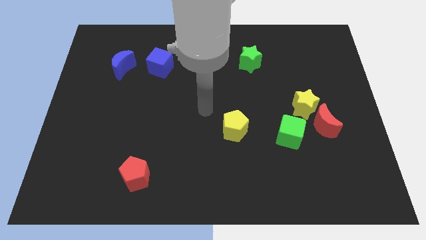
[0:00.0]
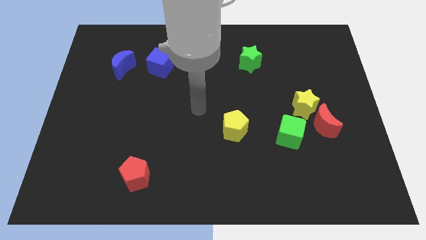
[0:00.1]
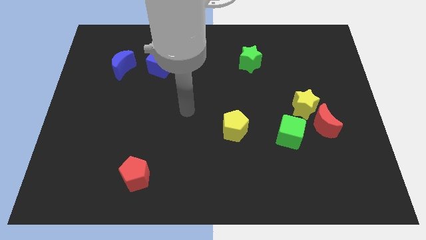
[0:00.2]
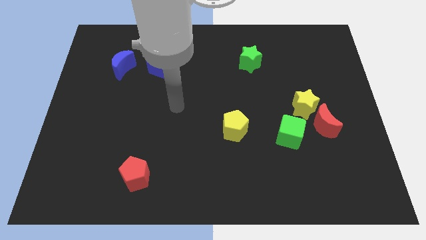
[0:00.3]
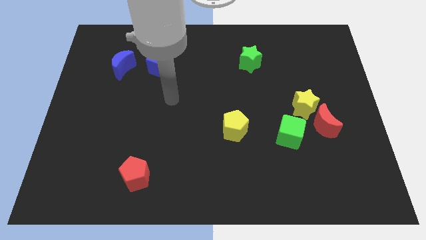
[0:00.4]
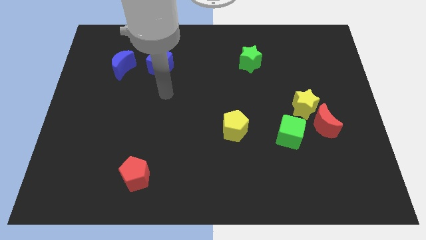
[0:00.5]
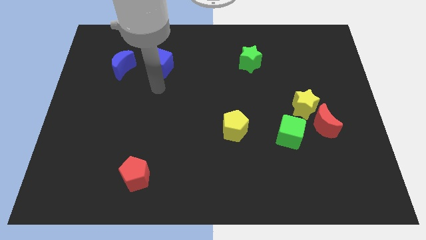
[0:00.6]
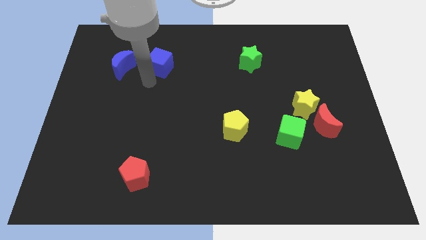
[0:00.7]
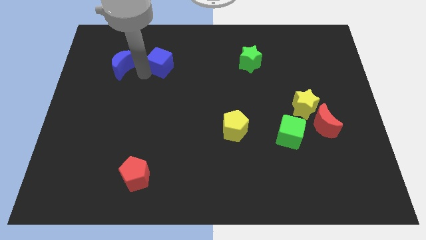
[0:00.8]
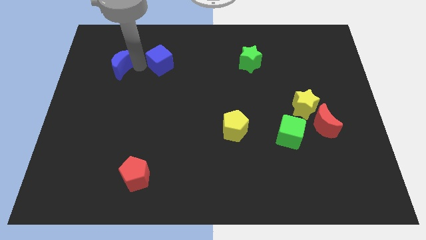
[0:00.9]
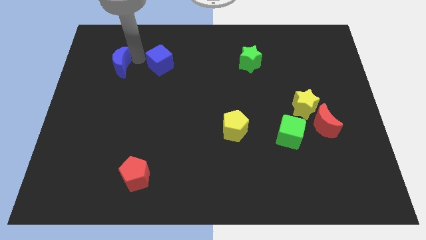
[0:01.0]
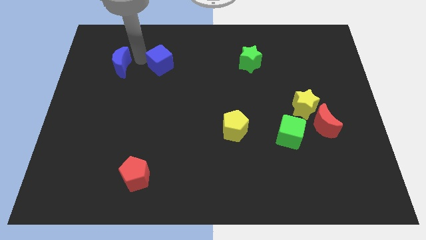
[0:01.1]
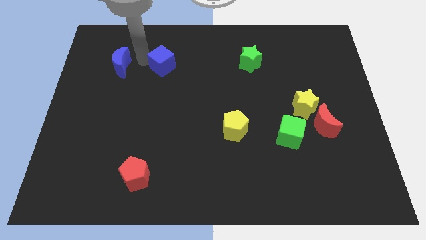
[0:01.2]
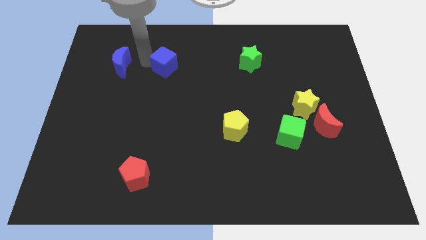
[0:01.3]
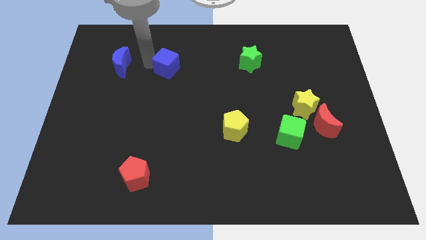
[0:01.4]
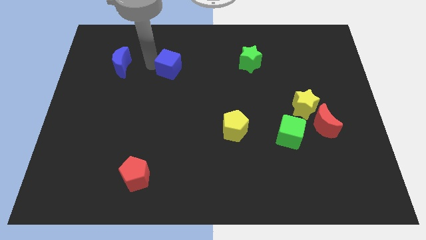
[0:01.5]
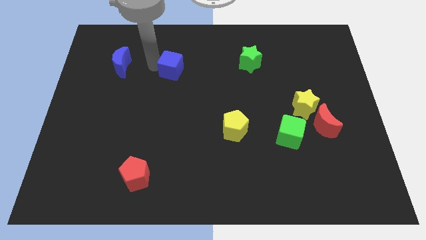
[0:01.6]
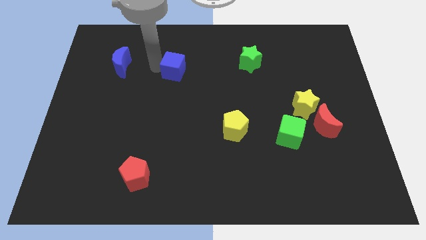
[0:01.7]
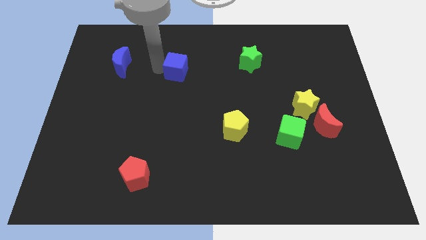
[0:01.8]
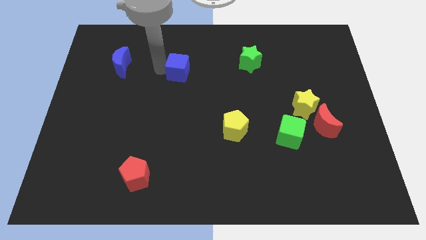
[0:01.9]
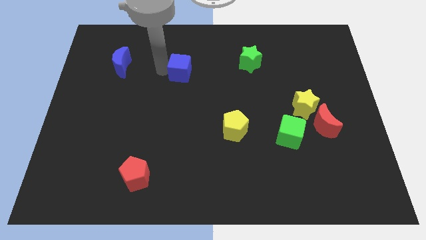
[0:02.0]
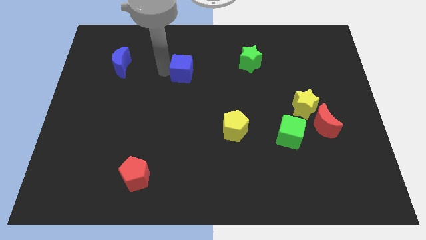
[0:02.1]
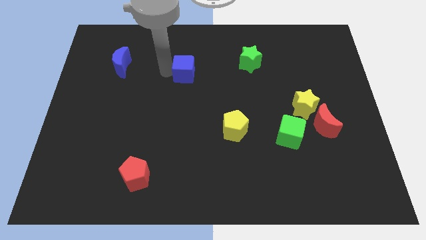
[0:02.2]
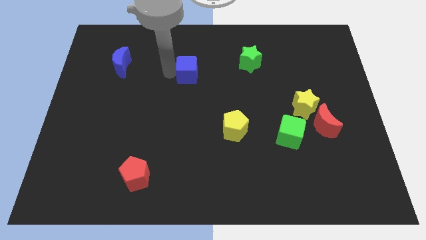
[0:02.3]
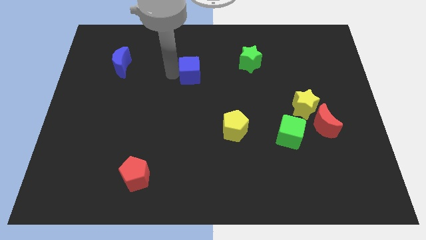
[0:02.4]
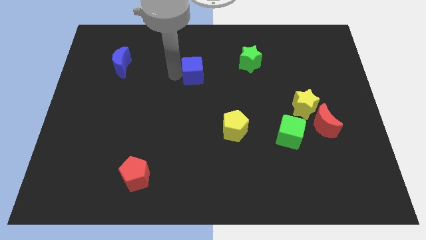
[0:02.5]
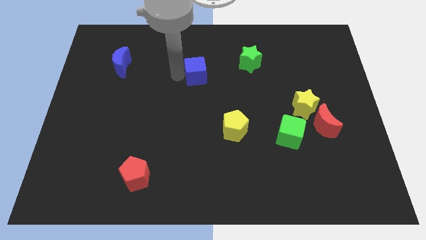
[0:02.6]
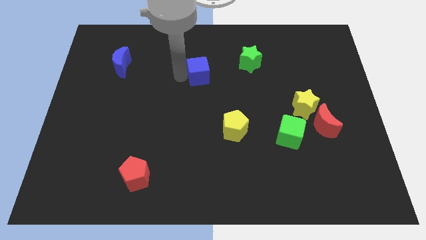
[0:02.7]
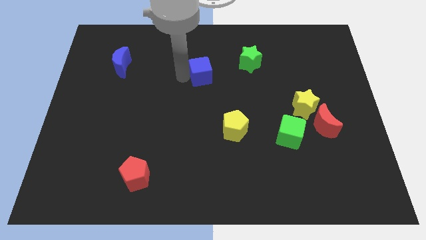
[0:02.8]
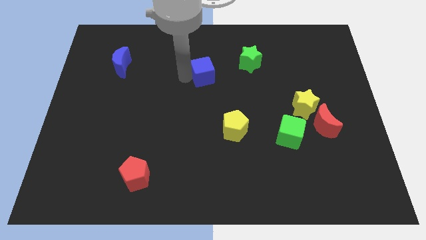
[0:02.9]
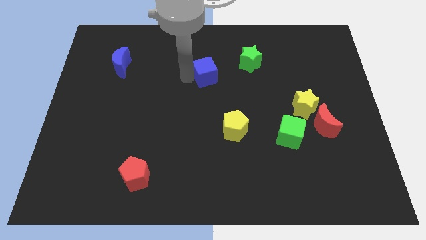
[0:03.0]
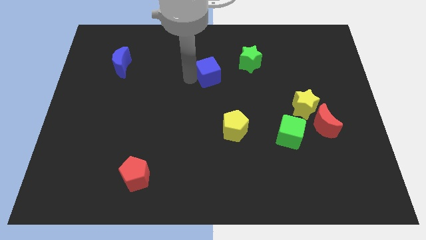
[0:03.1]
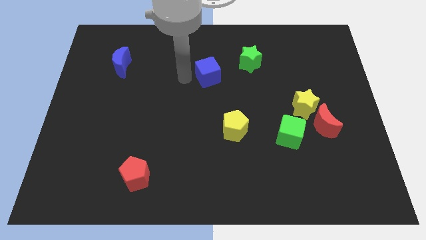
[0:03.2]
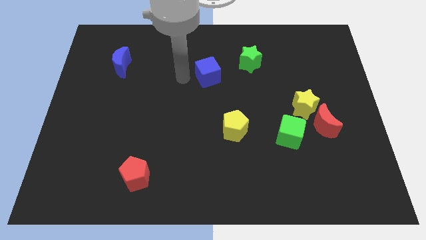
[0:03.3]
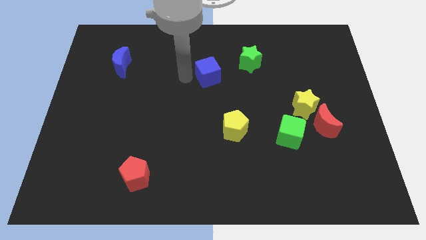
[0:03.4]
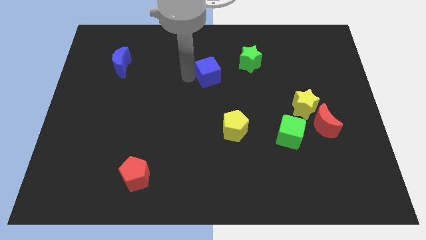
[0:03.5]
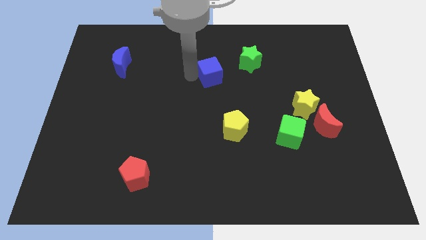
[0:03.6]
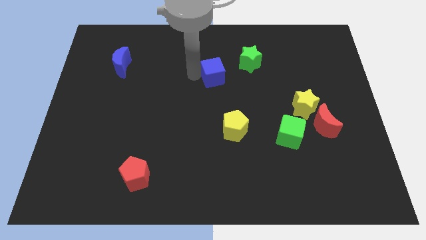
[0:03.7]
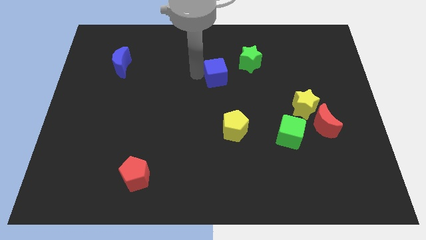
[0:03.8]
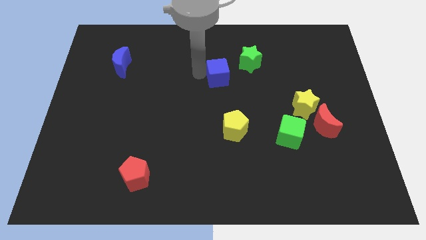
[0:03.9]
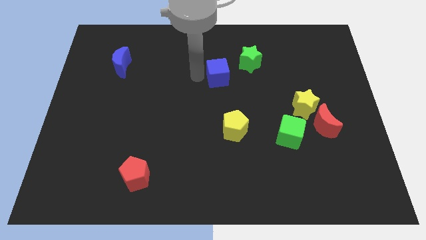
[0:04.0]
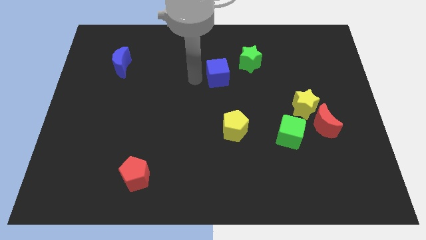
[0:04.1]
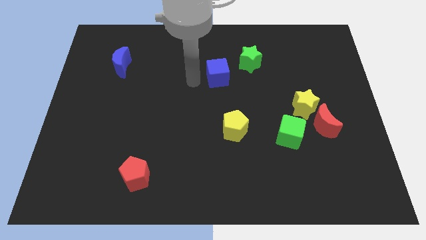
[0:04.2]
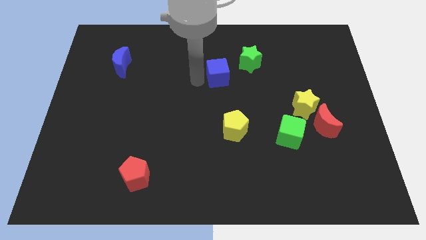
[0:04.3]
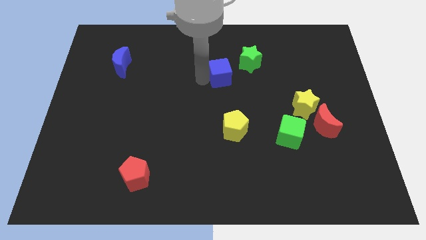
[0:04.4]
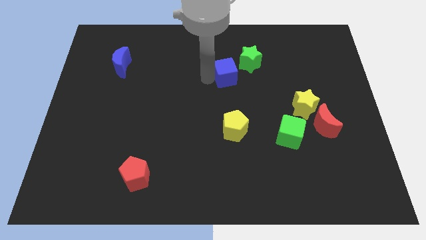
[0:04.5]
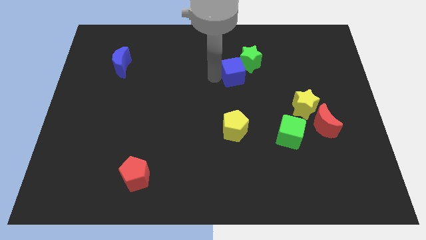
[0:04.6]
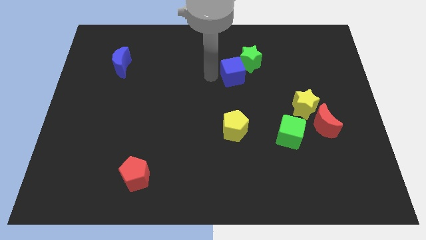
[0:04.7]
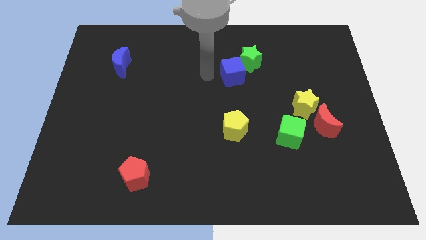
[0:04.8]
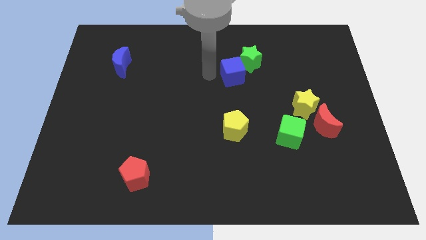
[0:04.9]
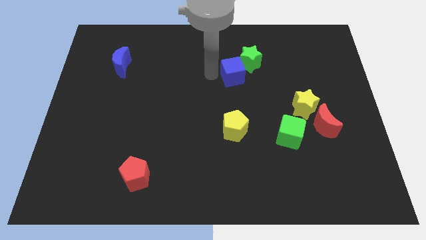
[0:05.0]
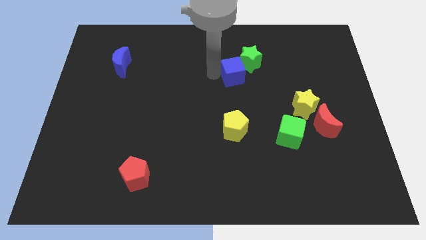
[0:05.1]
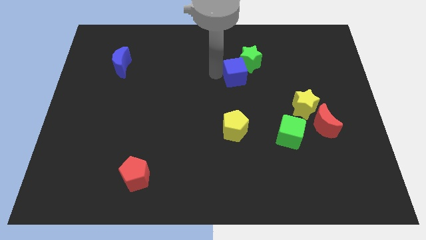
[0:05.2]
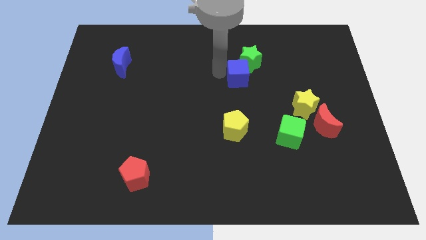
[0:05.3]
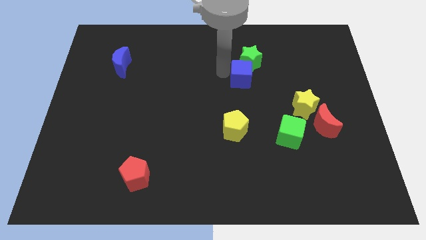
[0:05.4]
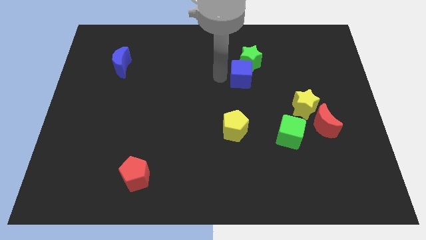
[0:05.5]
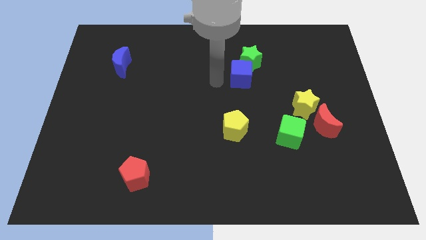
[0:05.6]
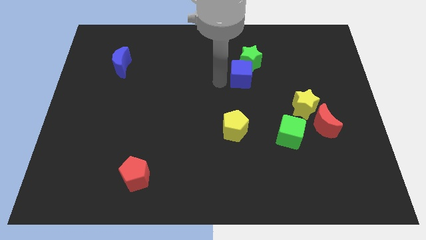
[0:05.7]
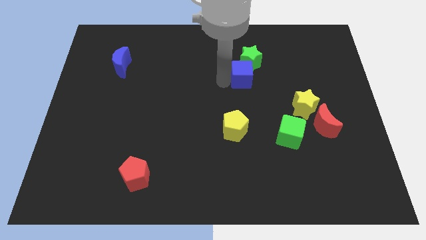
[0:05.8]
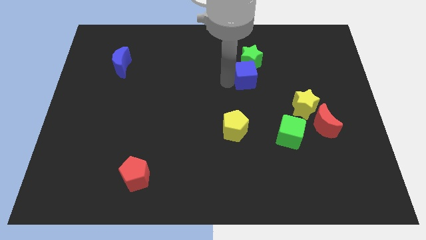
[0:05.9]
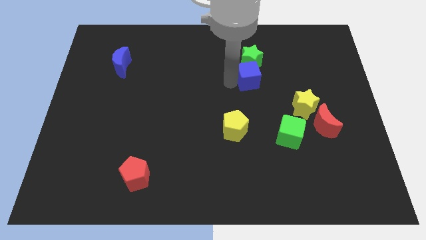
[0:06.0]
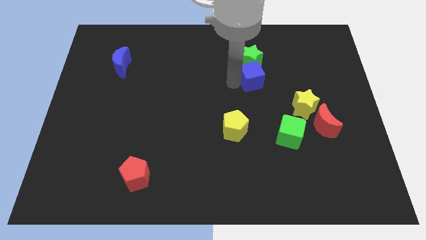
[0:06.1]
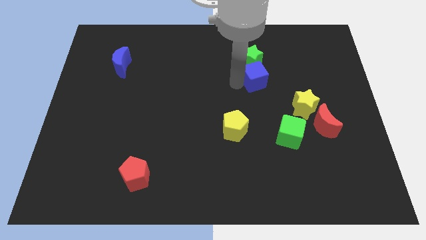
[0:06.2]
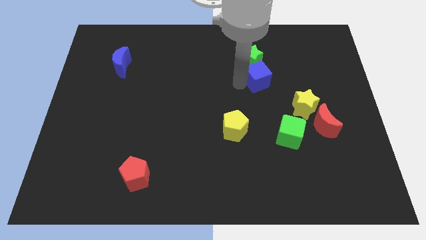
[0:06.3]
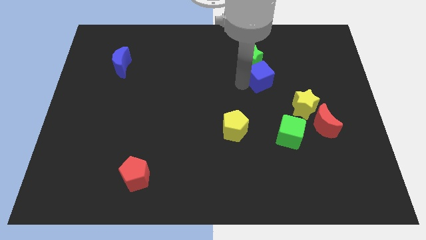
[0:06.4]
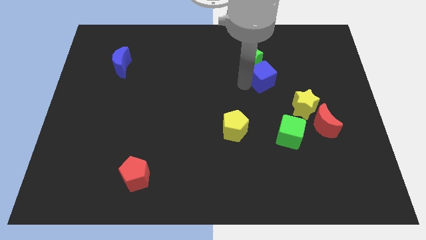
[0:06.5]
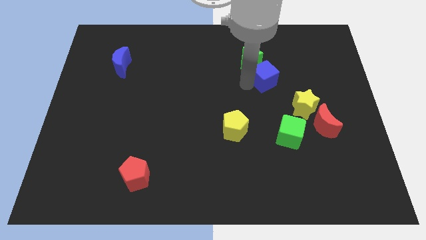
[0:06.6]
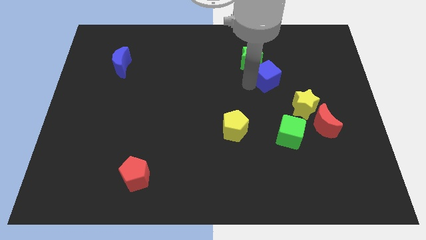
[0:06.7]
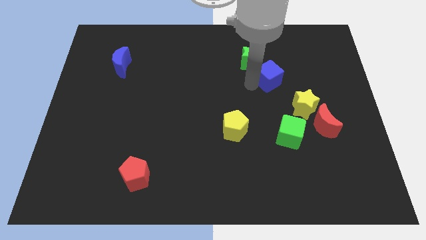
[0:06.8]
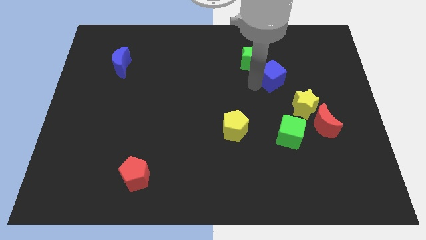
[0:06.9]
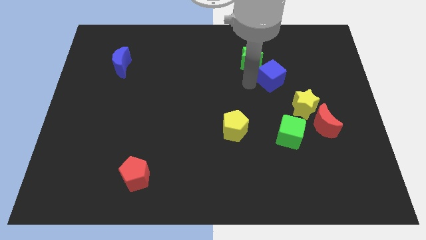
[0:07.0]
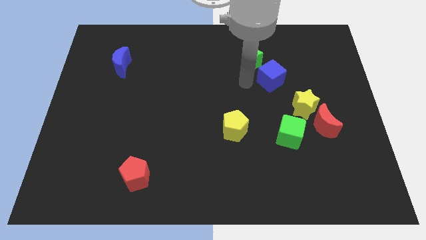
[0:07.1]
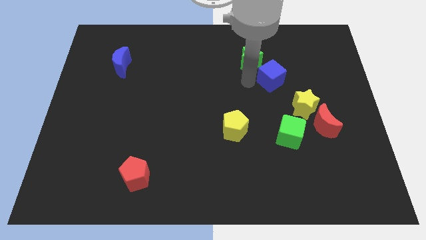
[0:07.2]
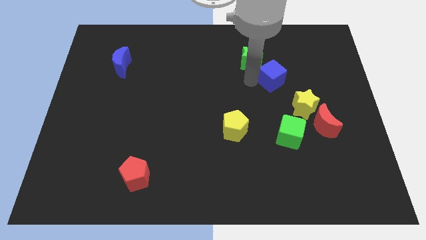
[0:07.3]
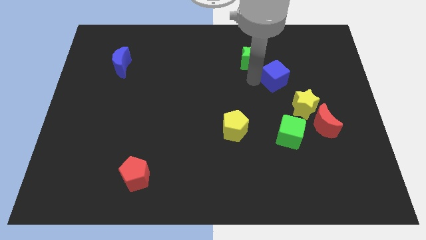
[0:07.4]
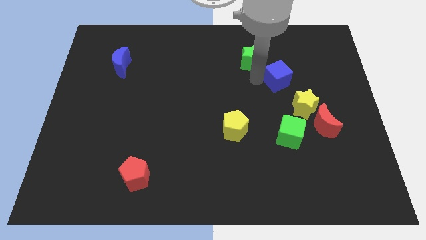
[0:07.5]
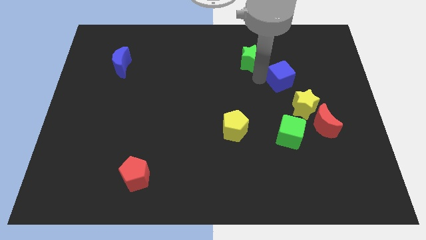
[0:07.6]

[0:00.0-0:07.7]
push the blue cube above the yellow star
